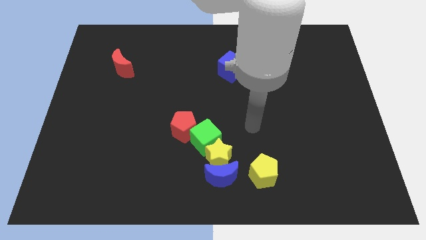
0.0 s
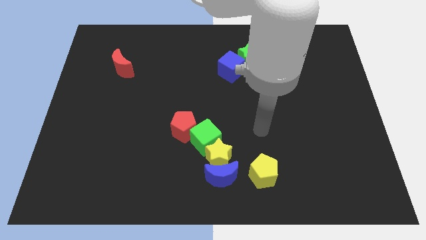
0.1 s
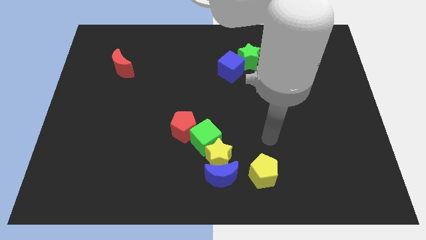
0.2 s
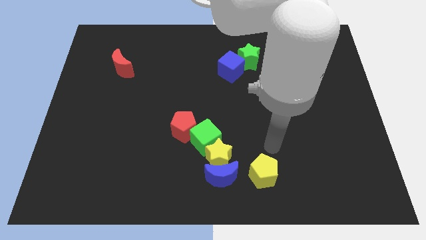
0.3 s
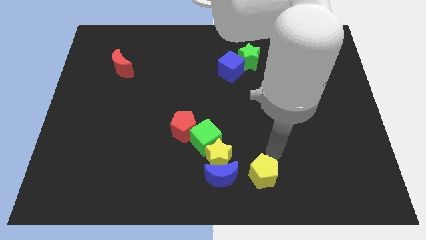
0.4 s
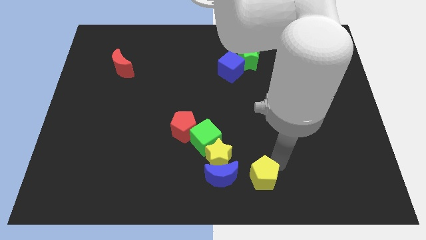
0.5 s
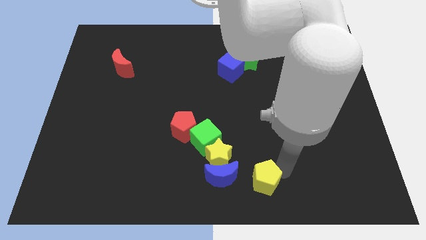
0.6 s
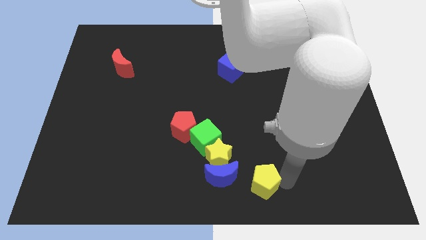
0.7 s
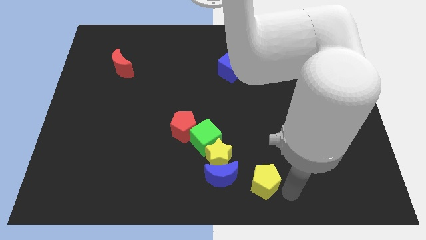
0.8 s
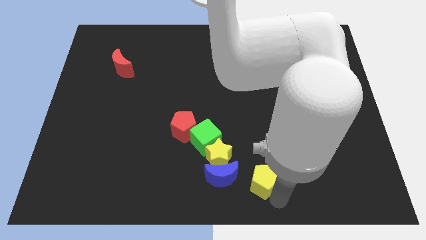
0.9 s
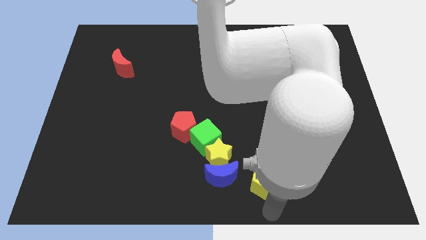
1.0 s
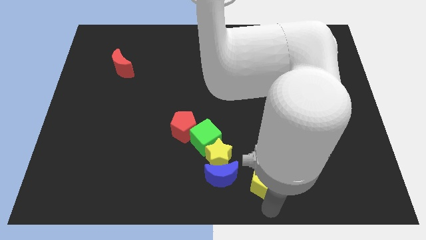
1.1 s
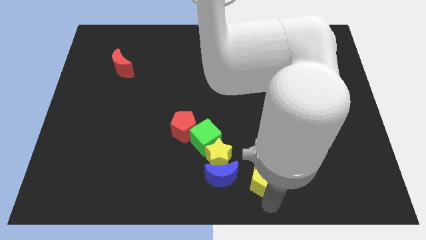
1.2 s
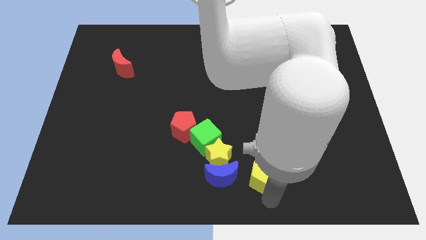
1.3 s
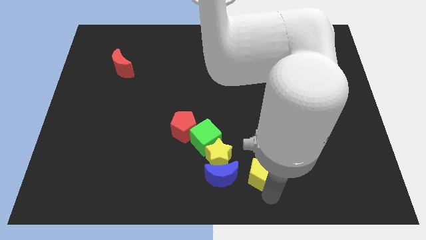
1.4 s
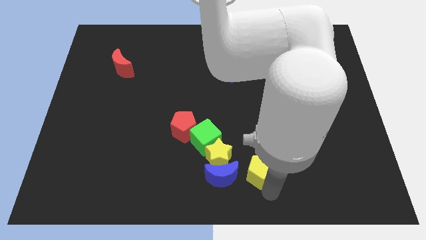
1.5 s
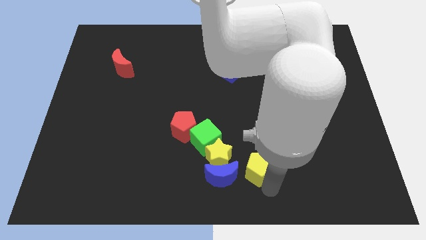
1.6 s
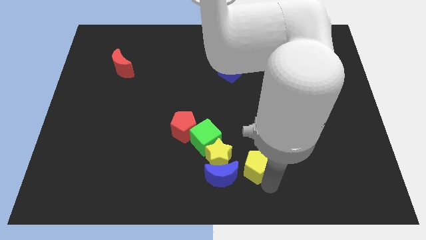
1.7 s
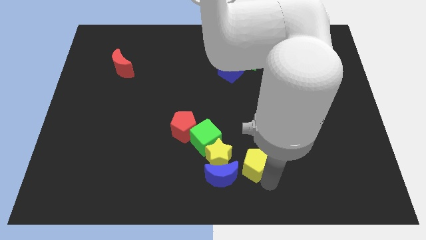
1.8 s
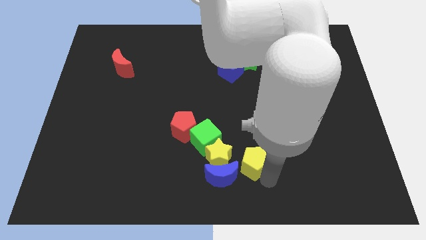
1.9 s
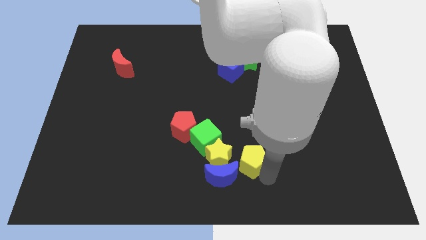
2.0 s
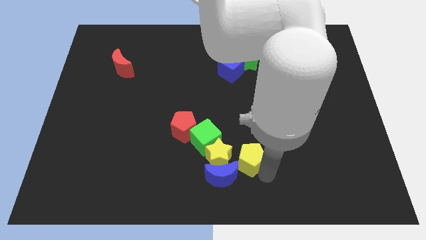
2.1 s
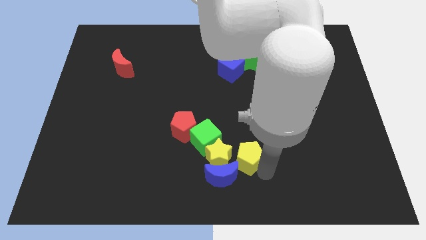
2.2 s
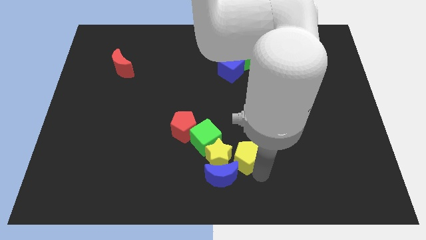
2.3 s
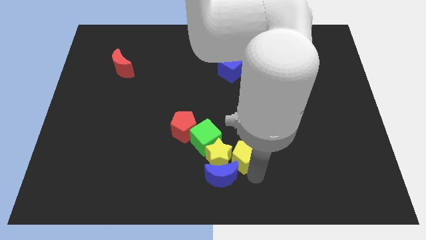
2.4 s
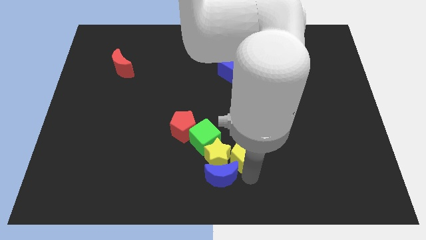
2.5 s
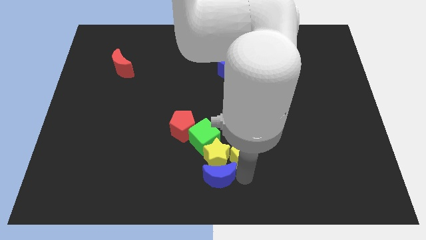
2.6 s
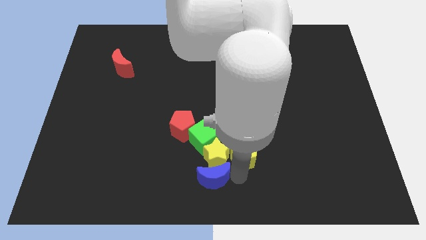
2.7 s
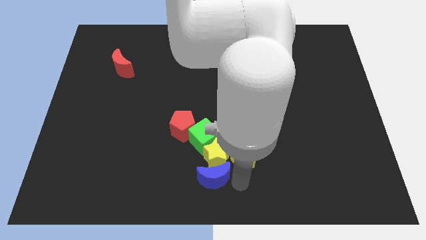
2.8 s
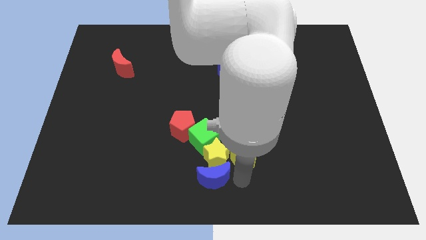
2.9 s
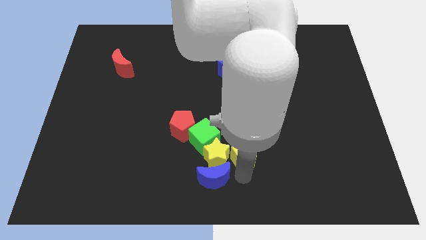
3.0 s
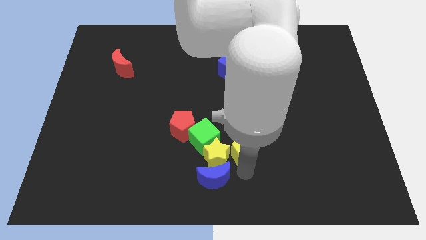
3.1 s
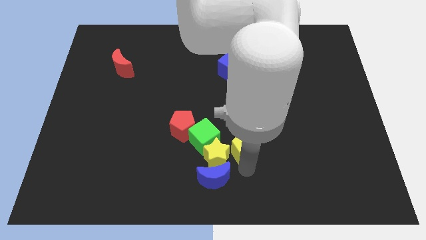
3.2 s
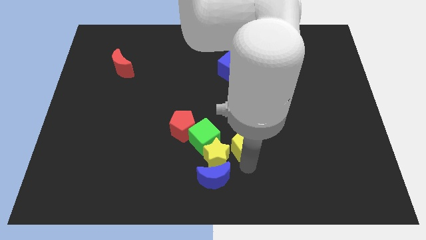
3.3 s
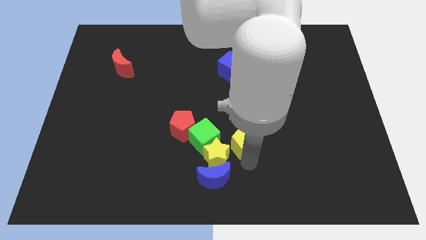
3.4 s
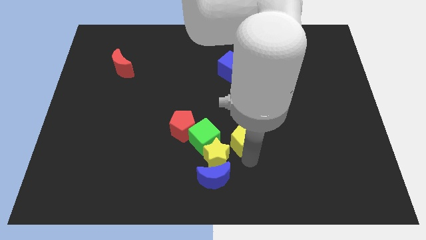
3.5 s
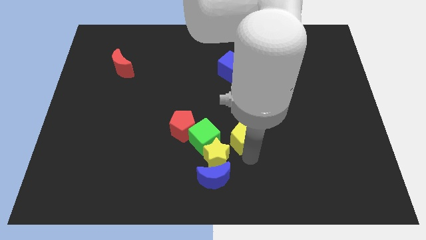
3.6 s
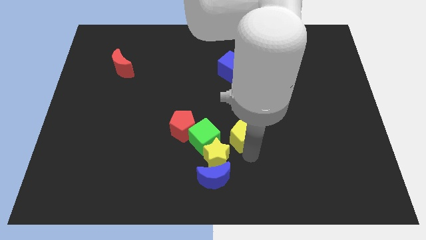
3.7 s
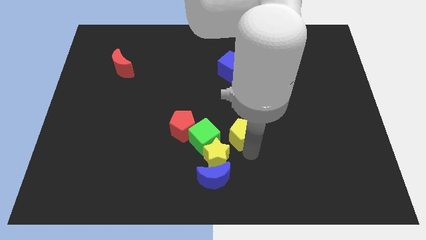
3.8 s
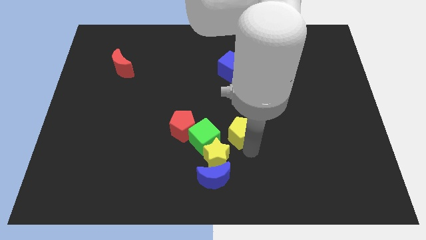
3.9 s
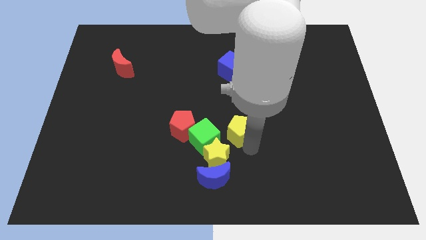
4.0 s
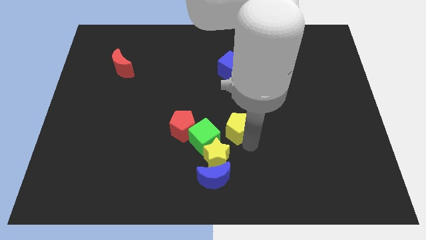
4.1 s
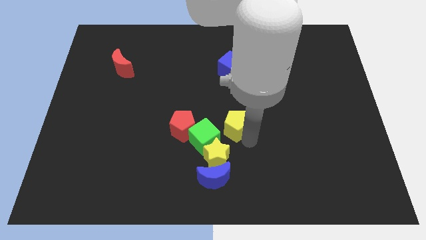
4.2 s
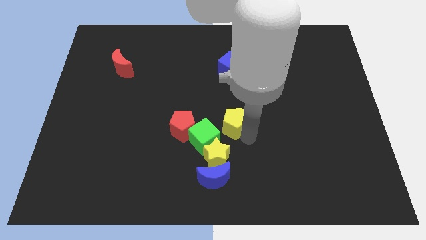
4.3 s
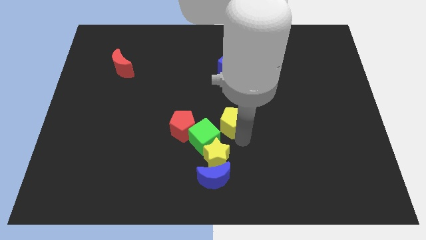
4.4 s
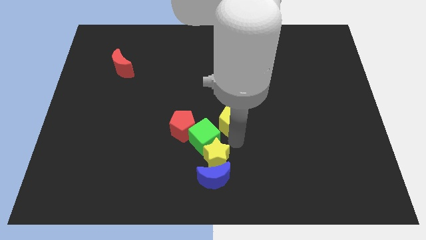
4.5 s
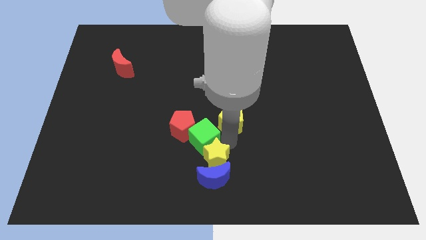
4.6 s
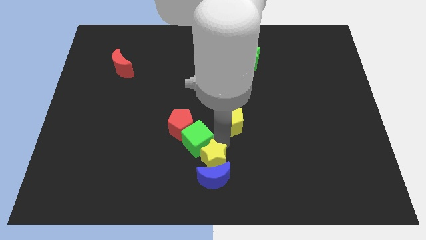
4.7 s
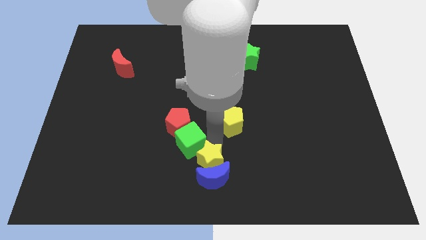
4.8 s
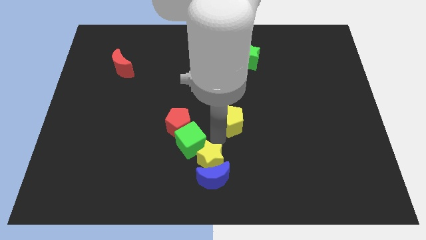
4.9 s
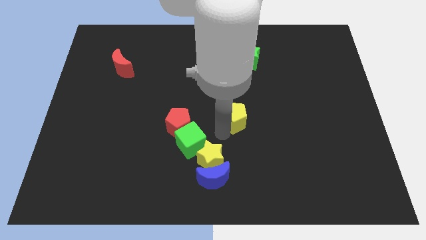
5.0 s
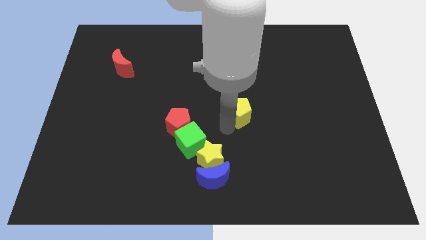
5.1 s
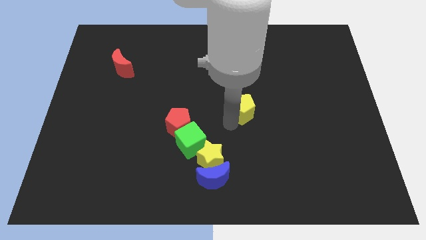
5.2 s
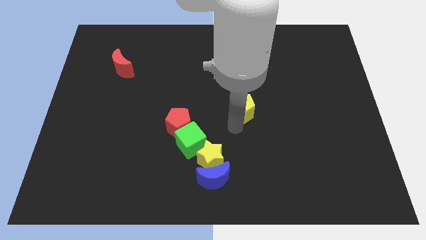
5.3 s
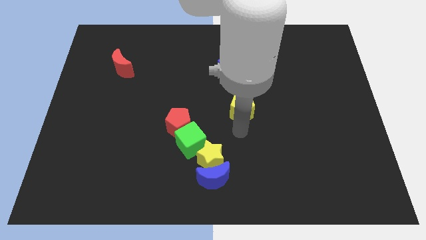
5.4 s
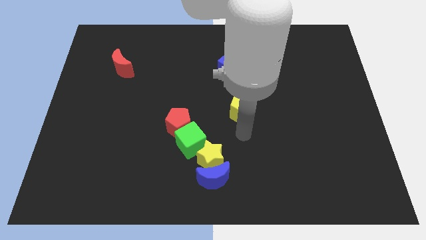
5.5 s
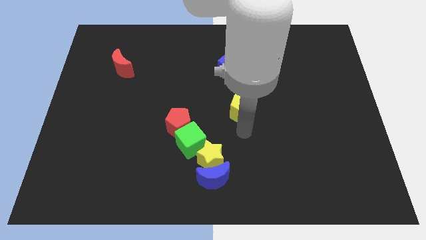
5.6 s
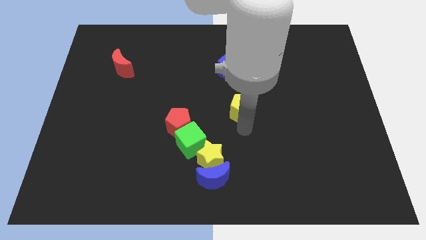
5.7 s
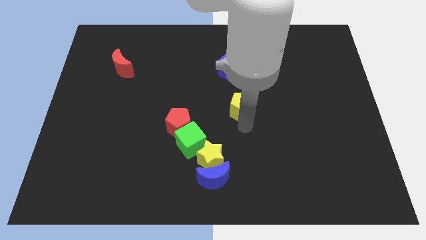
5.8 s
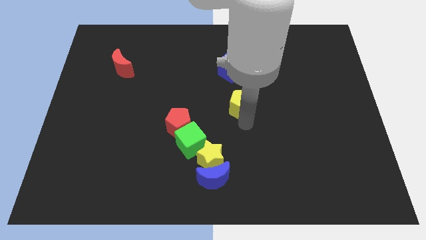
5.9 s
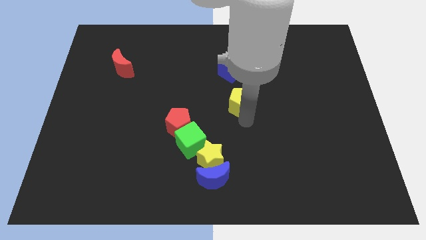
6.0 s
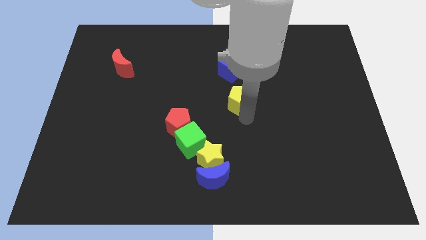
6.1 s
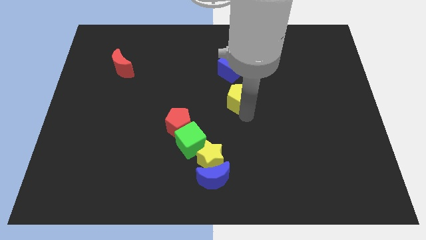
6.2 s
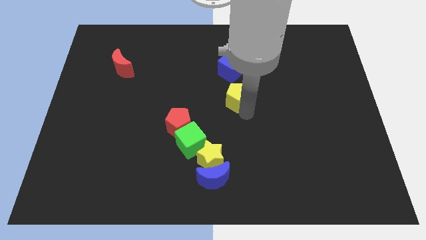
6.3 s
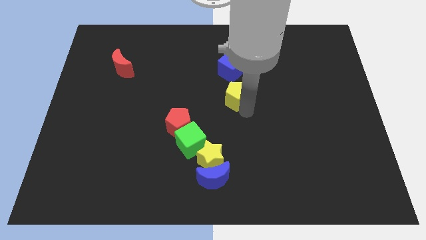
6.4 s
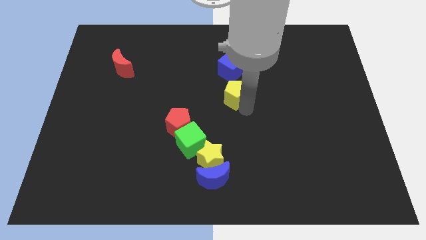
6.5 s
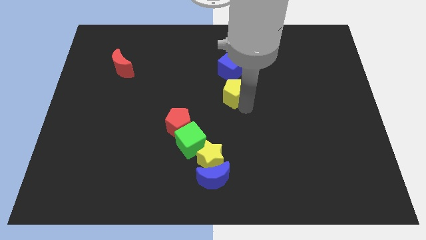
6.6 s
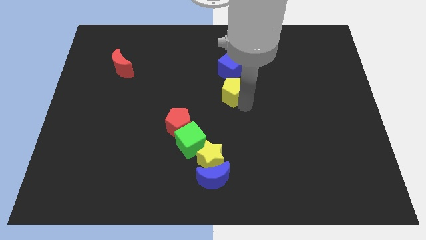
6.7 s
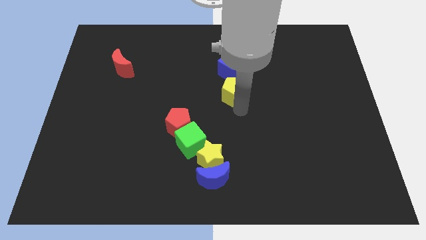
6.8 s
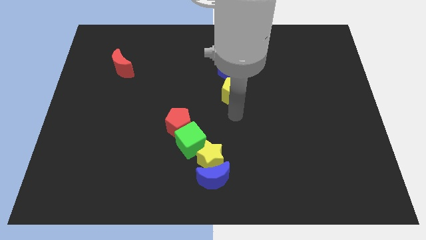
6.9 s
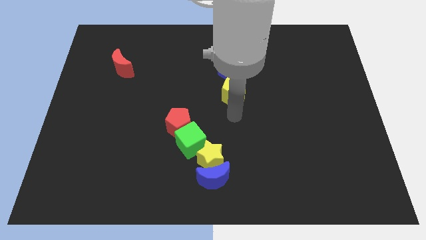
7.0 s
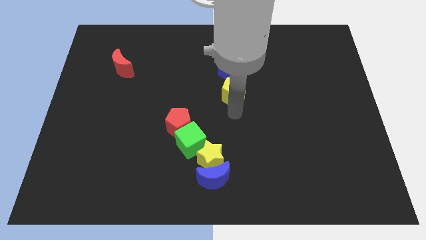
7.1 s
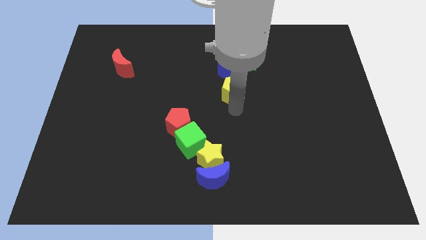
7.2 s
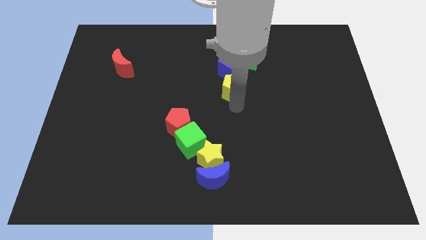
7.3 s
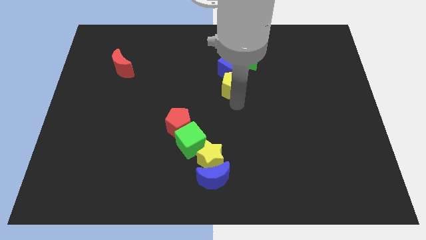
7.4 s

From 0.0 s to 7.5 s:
push the yellow pentagon to the blue cube
